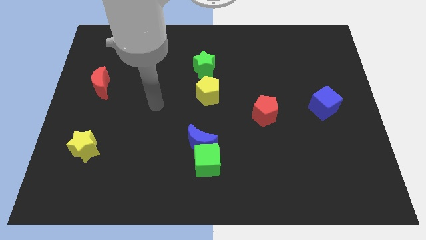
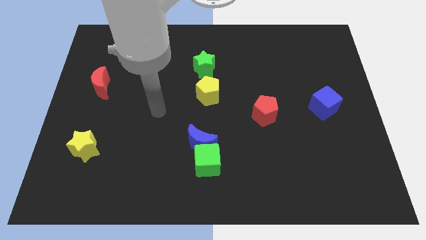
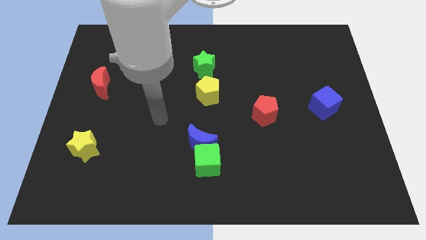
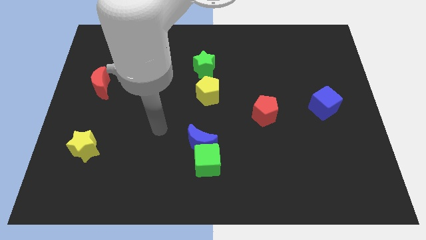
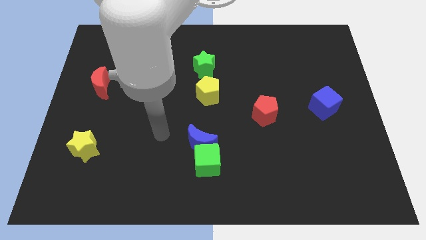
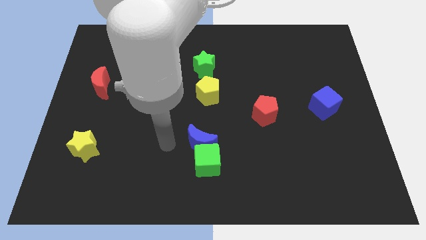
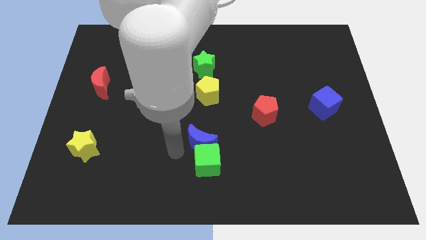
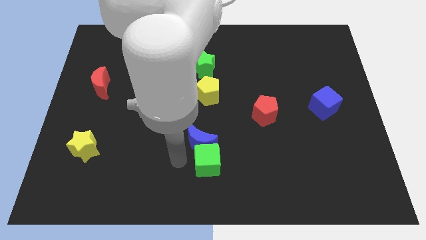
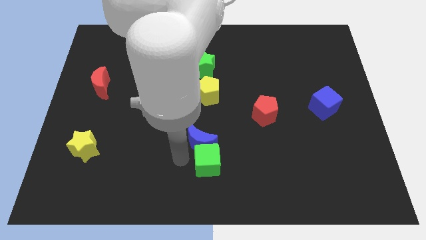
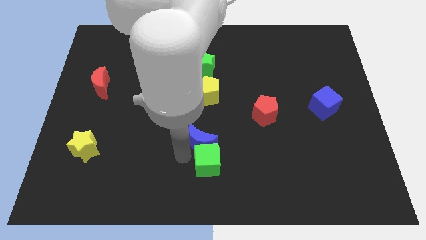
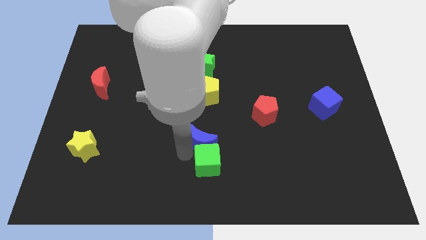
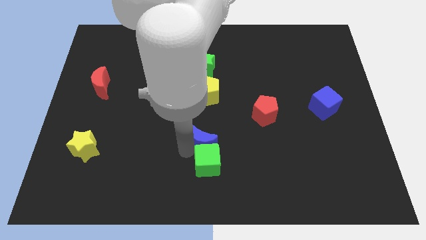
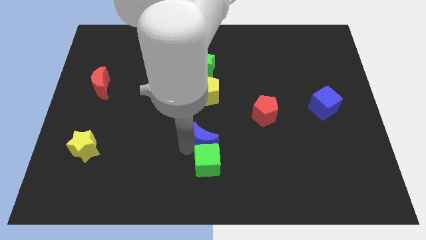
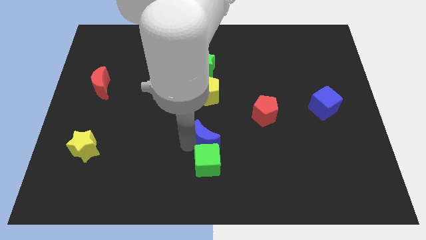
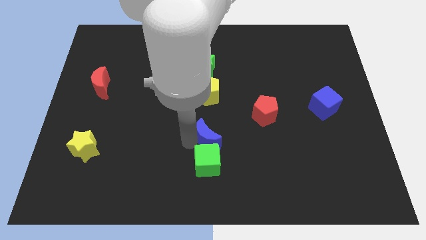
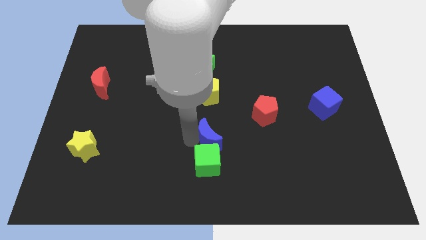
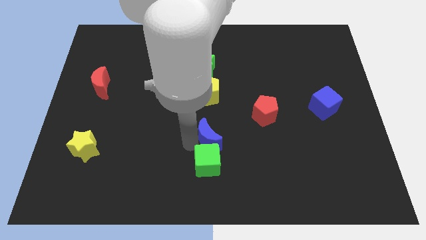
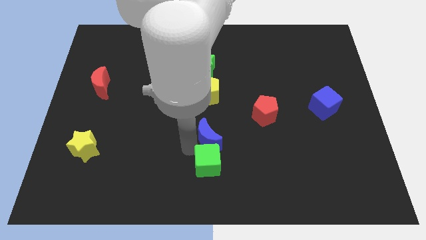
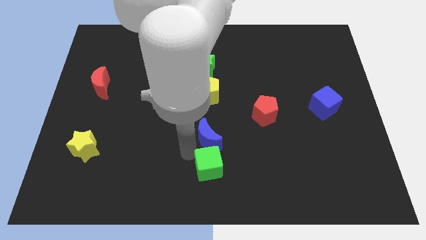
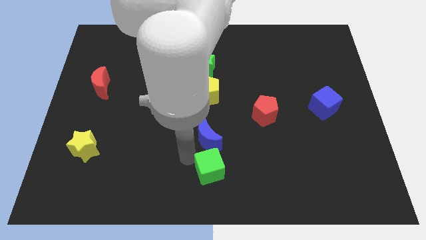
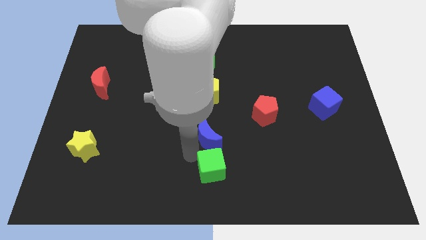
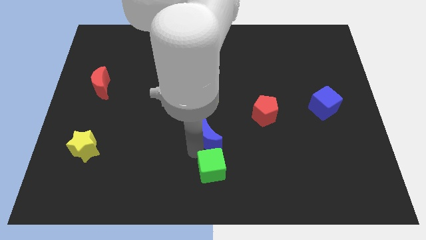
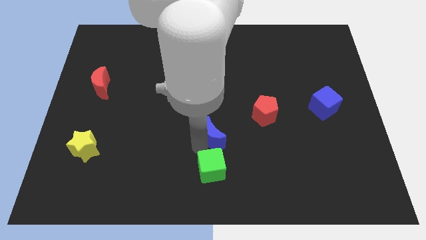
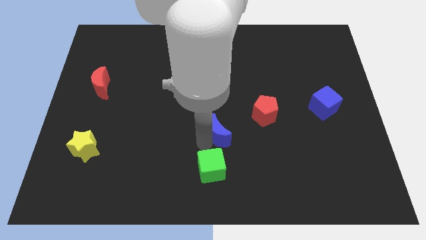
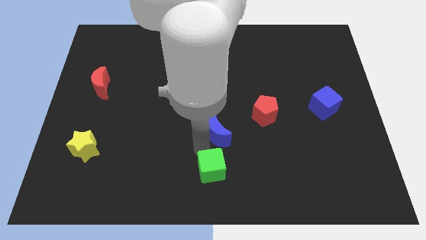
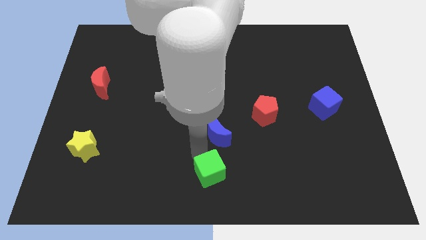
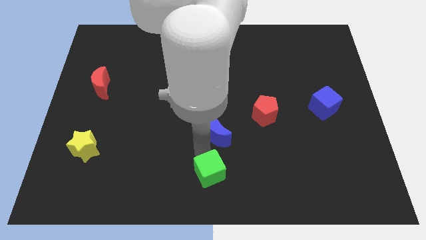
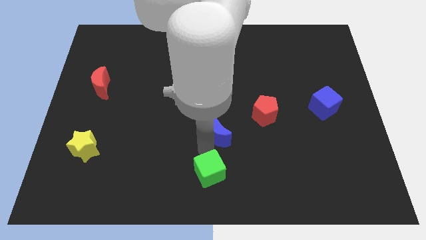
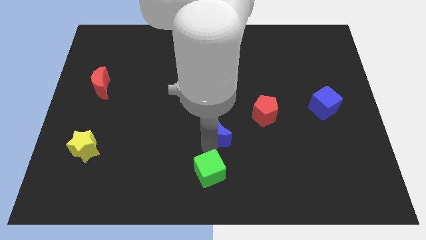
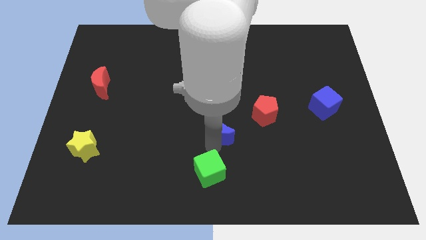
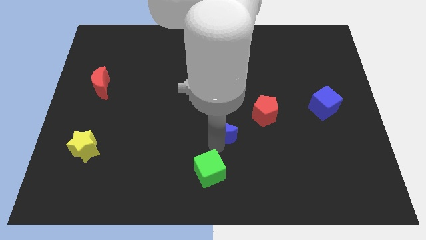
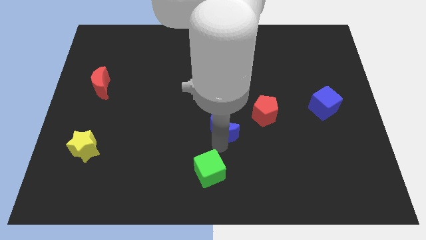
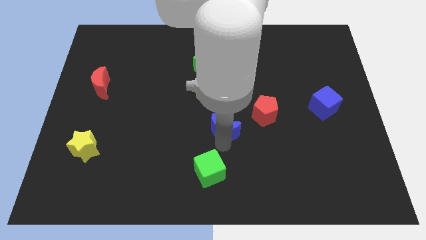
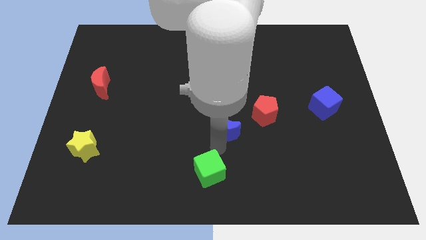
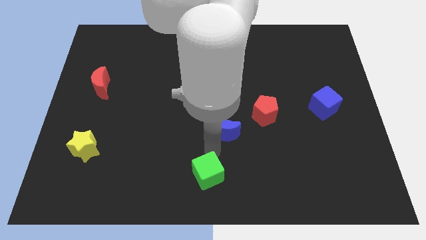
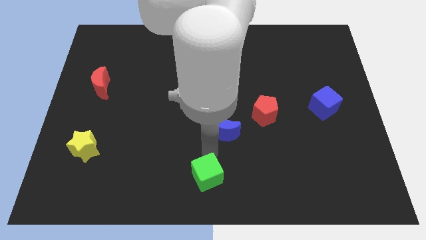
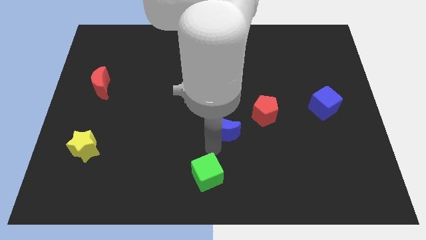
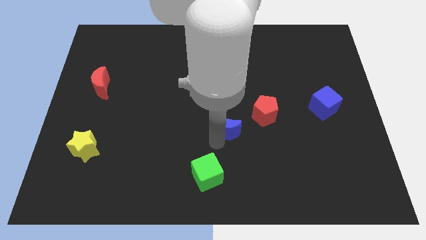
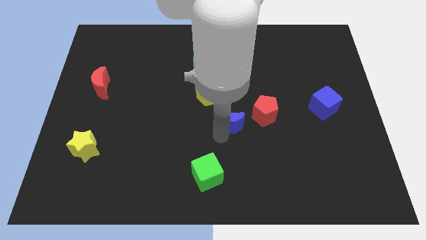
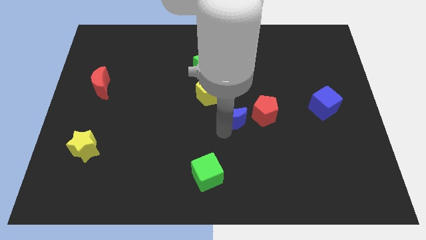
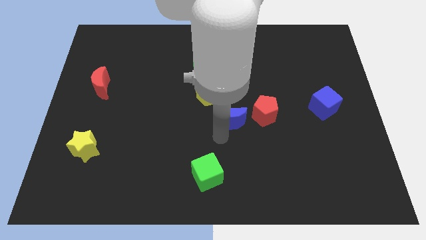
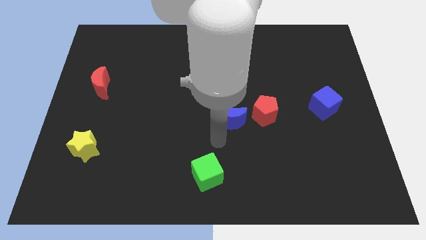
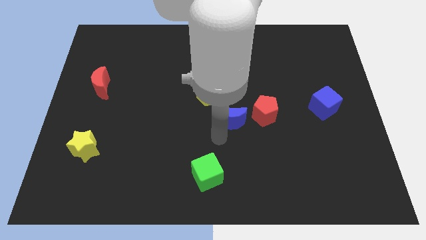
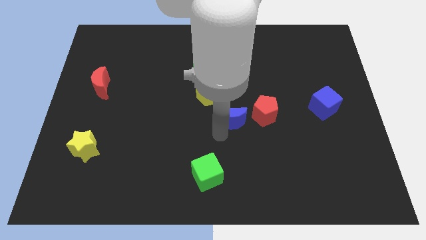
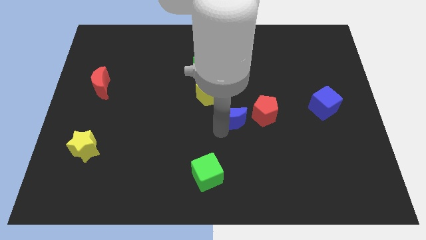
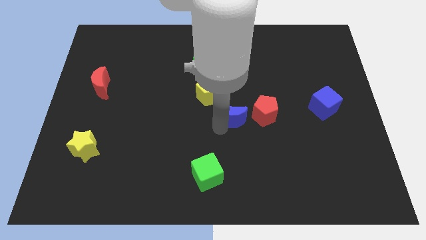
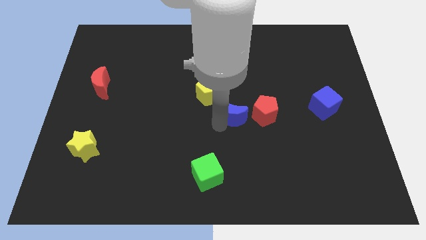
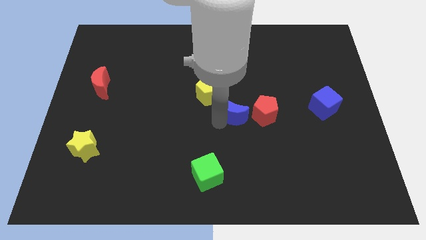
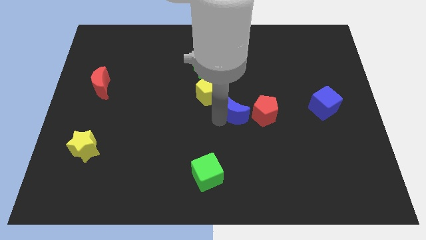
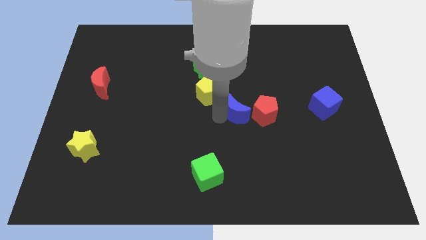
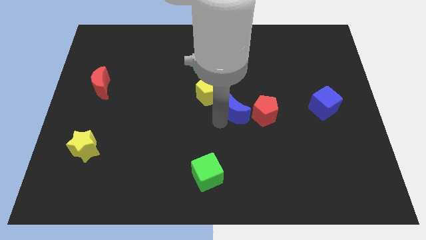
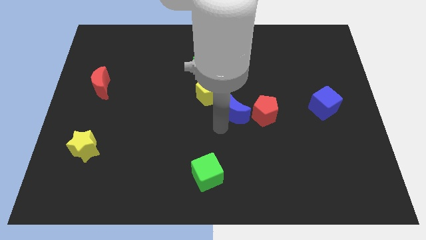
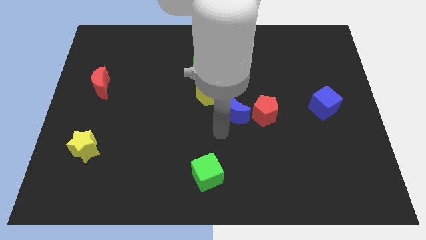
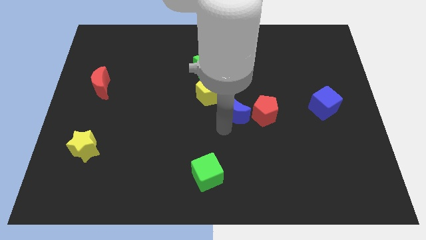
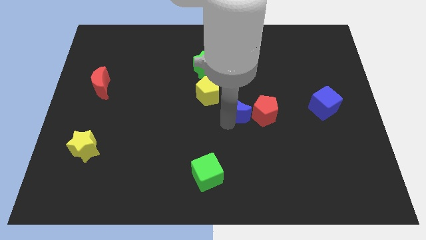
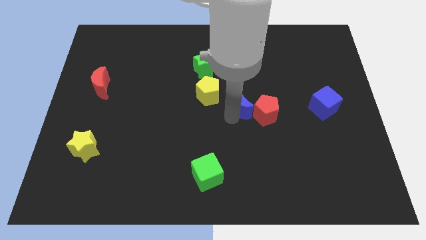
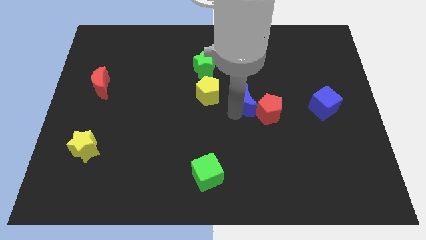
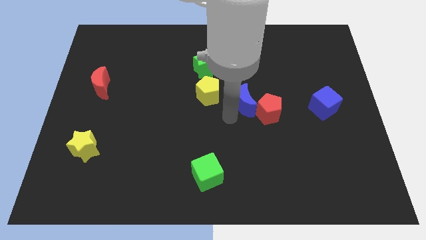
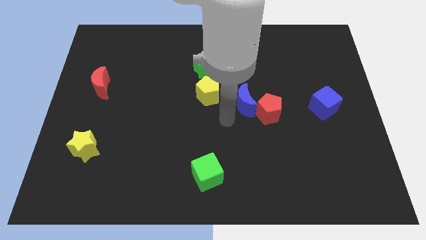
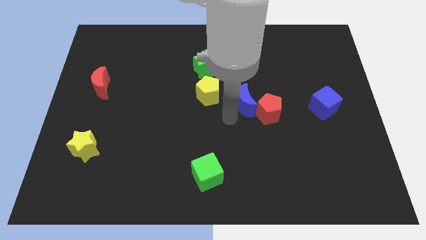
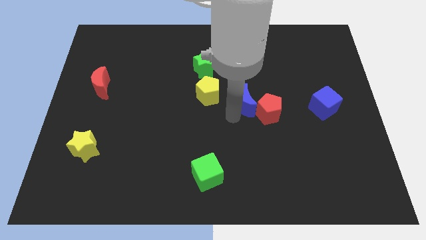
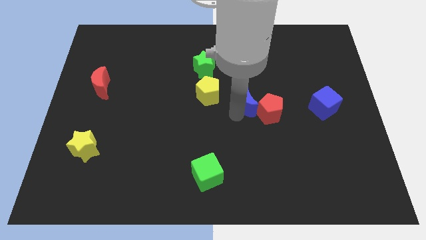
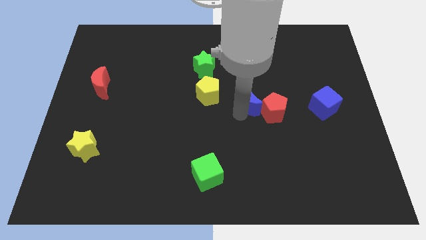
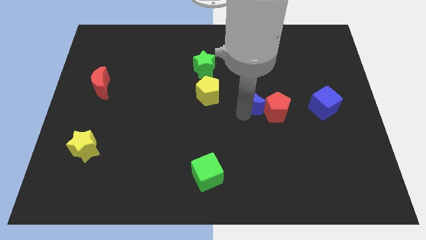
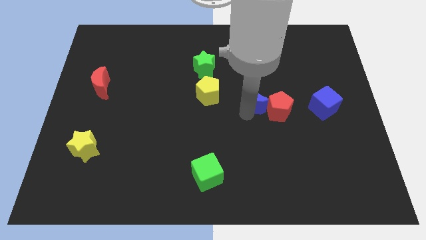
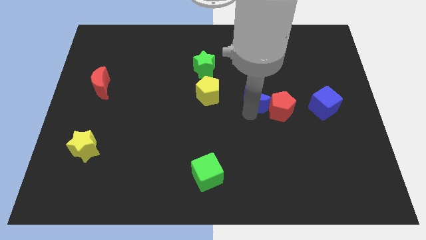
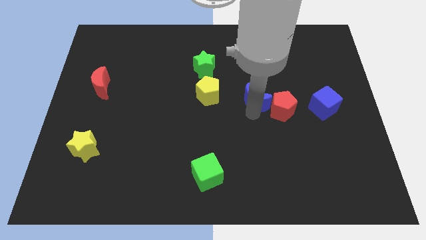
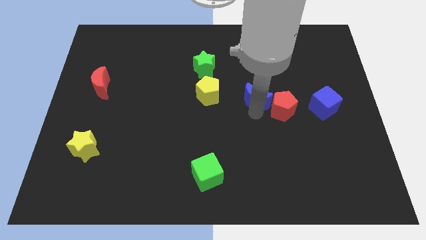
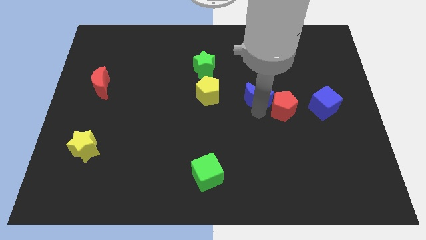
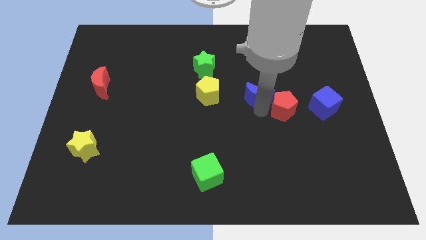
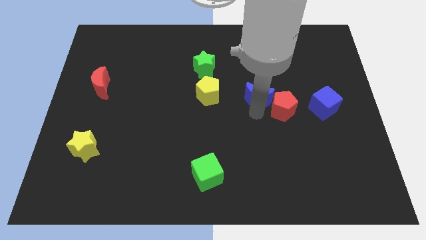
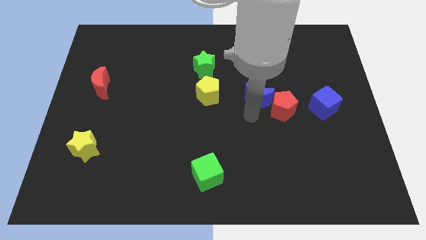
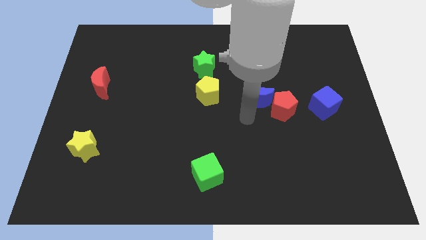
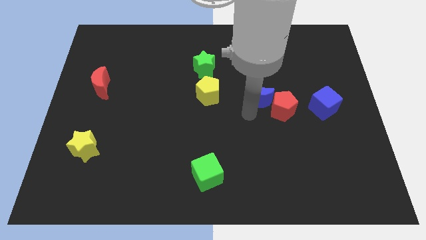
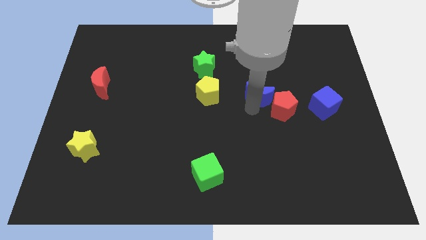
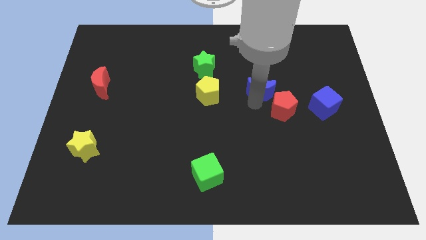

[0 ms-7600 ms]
slide the blue moon upwards and right
